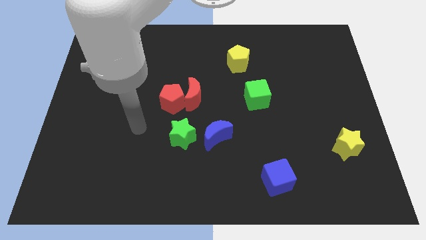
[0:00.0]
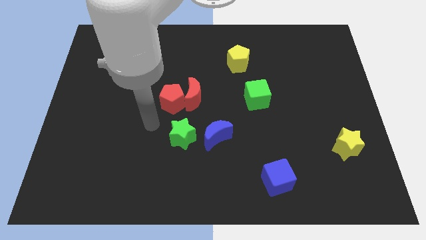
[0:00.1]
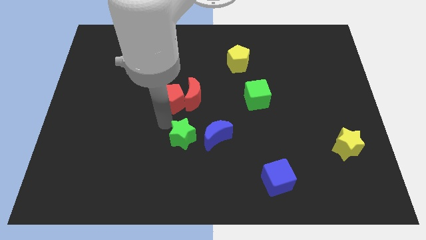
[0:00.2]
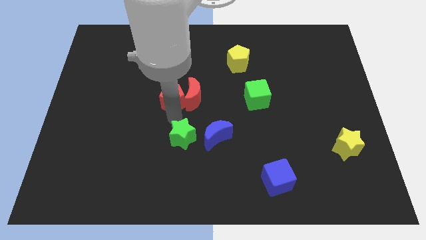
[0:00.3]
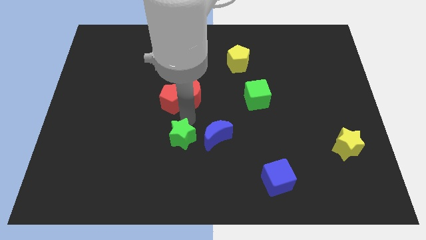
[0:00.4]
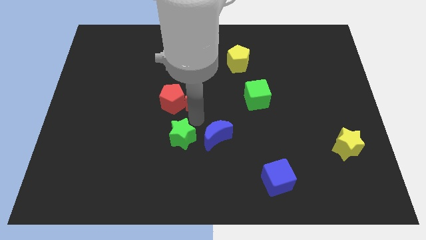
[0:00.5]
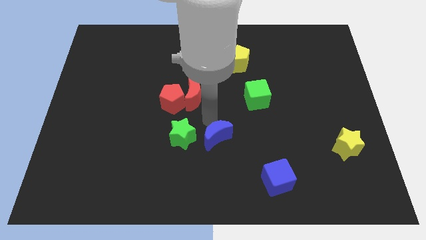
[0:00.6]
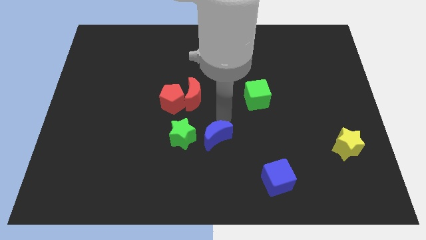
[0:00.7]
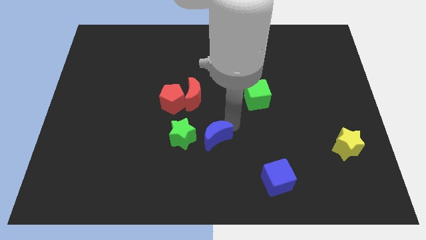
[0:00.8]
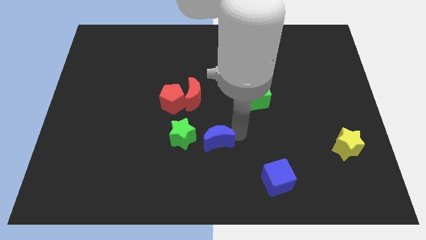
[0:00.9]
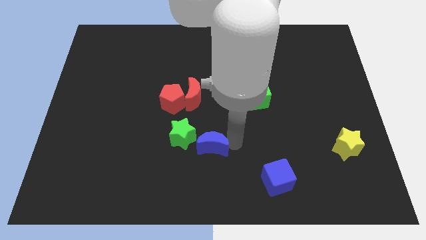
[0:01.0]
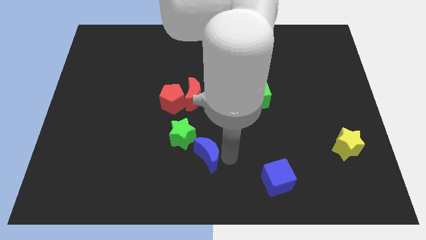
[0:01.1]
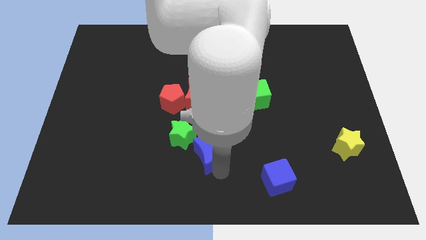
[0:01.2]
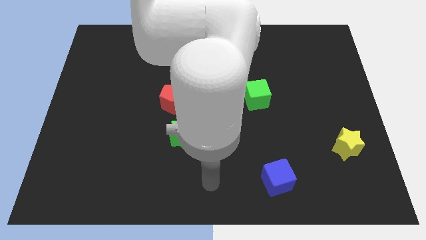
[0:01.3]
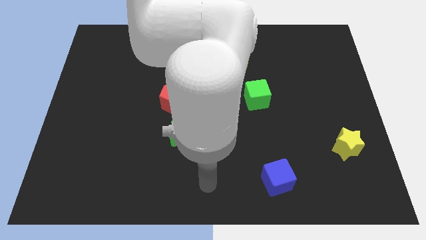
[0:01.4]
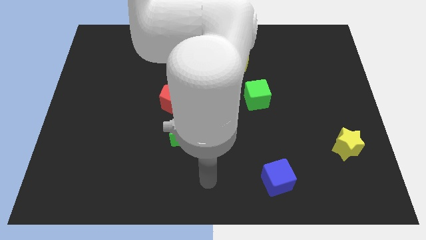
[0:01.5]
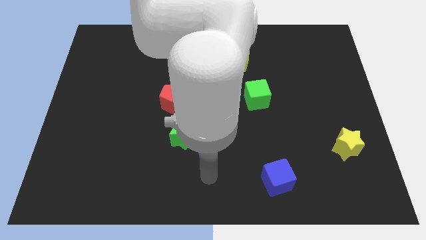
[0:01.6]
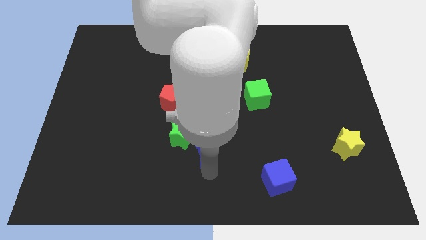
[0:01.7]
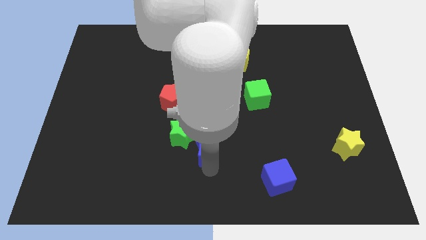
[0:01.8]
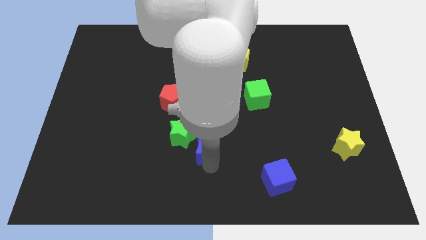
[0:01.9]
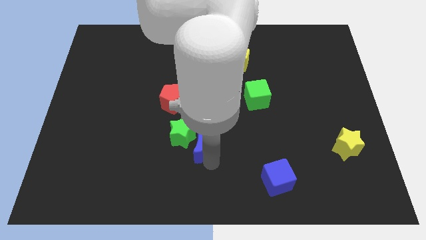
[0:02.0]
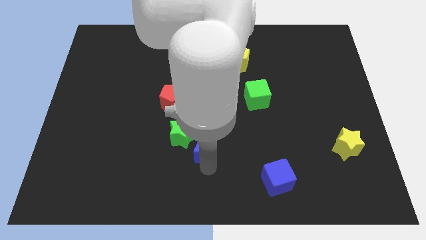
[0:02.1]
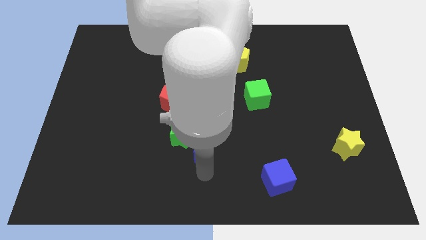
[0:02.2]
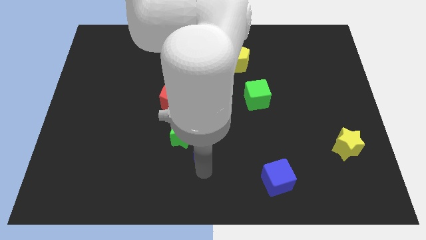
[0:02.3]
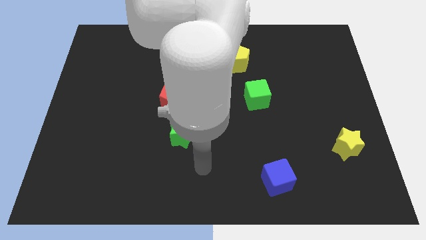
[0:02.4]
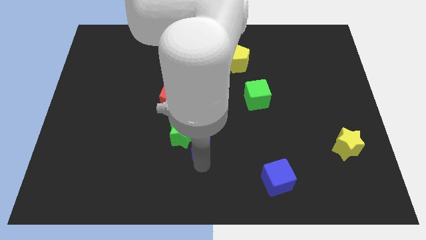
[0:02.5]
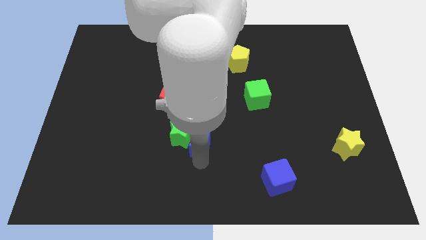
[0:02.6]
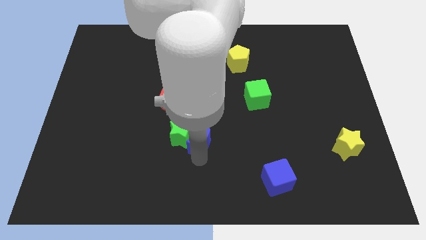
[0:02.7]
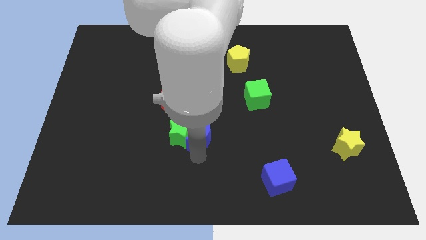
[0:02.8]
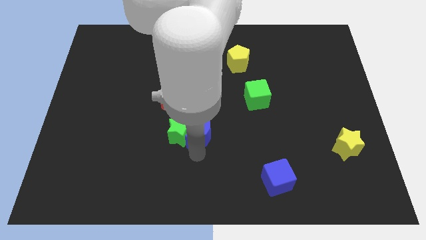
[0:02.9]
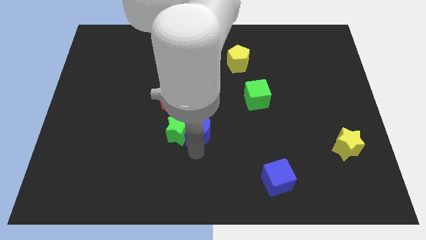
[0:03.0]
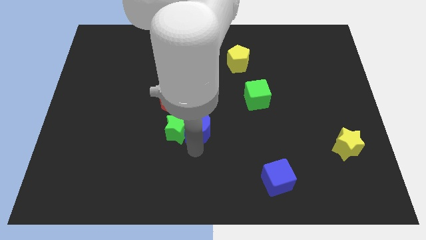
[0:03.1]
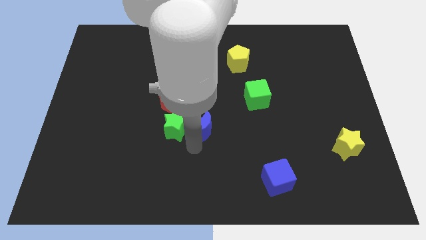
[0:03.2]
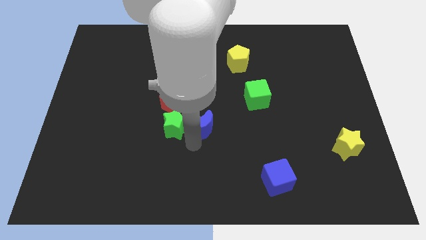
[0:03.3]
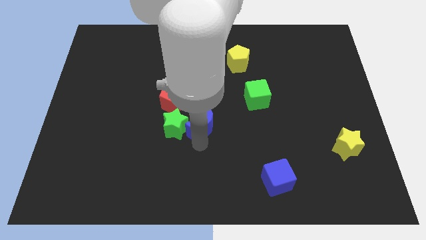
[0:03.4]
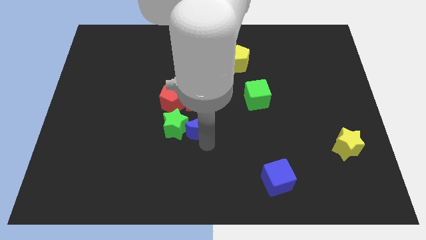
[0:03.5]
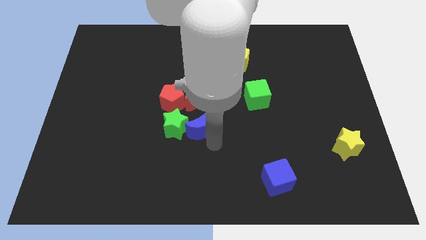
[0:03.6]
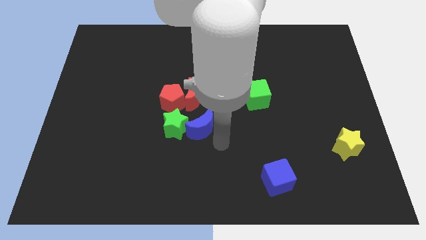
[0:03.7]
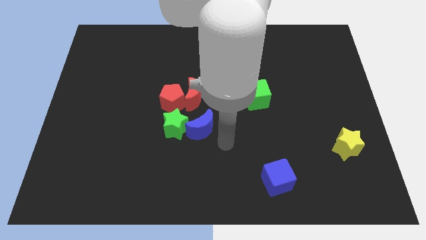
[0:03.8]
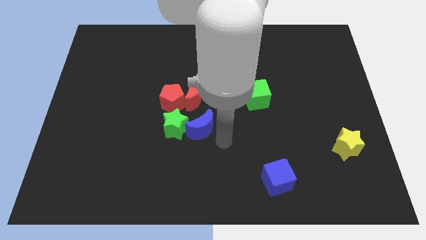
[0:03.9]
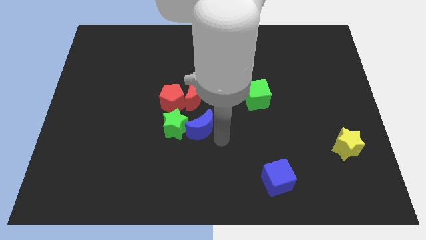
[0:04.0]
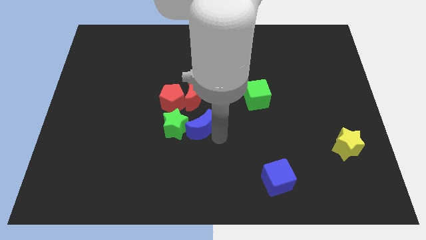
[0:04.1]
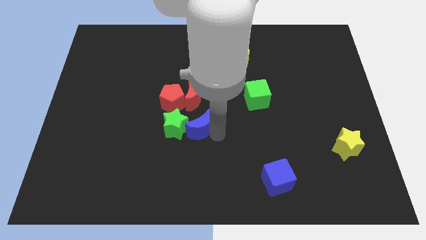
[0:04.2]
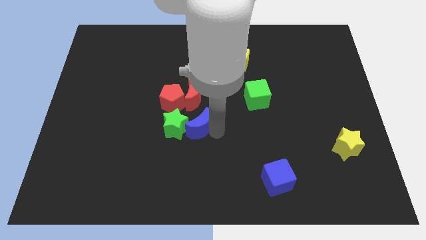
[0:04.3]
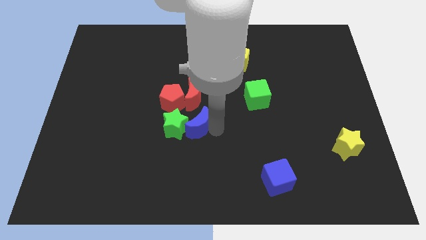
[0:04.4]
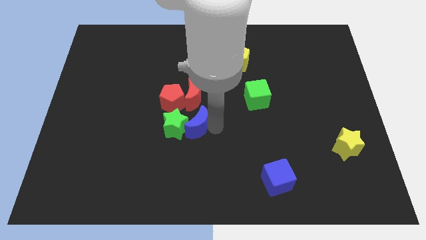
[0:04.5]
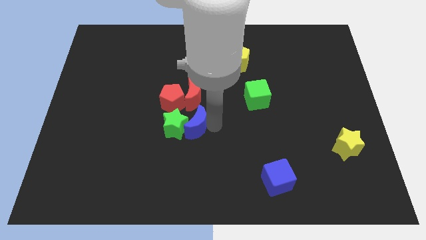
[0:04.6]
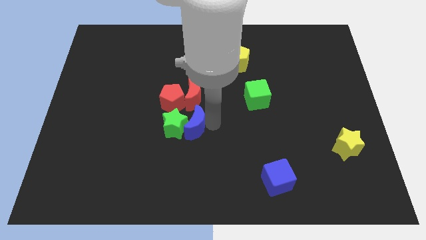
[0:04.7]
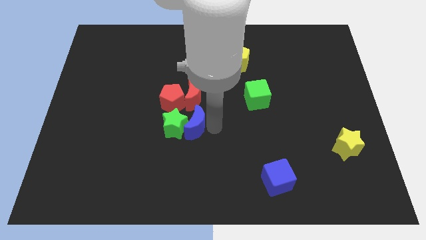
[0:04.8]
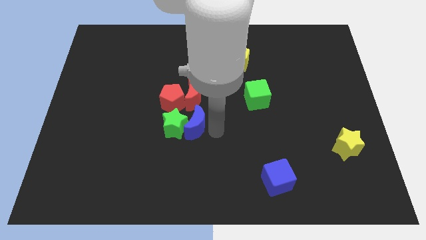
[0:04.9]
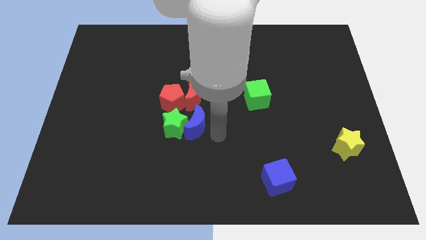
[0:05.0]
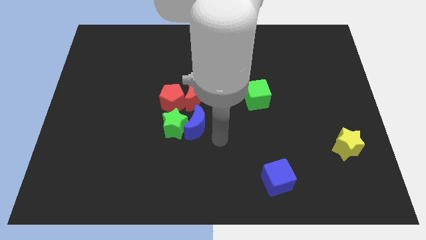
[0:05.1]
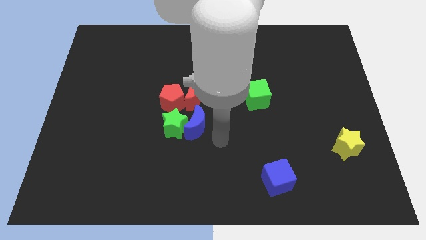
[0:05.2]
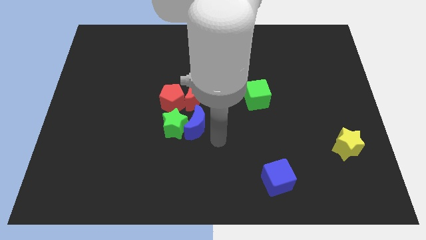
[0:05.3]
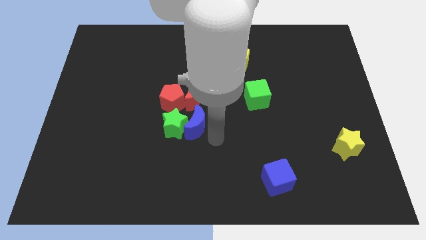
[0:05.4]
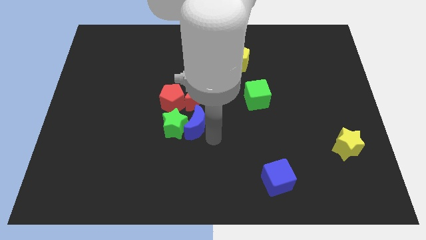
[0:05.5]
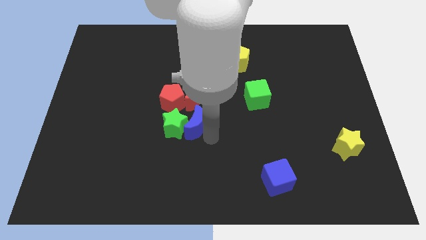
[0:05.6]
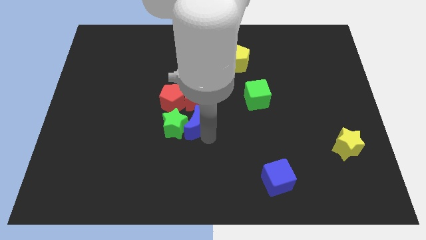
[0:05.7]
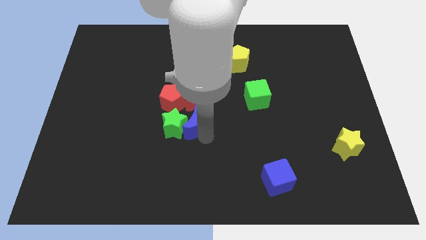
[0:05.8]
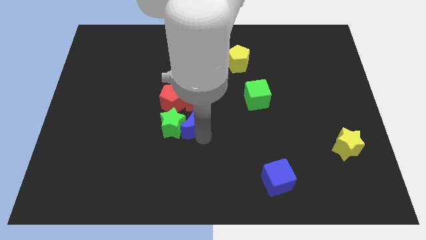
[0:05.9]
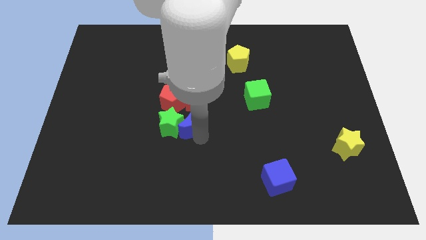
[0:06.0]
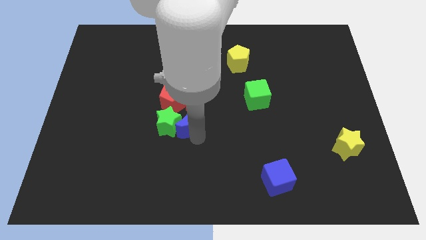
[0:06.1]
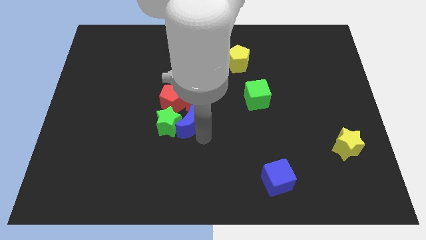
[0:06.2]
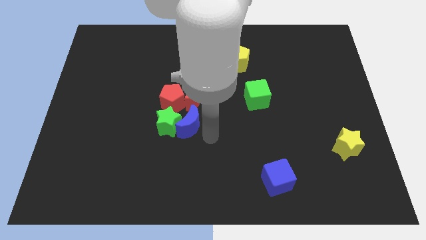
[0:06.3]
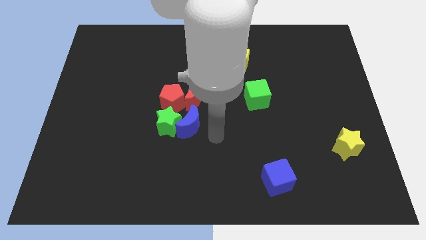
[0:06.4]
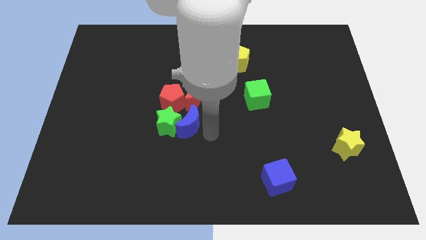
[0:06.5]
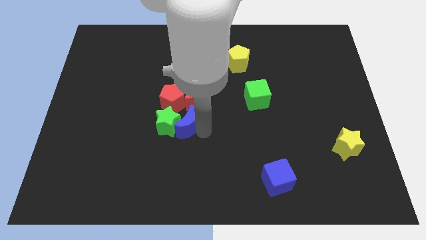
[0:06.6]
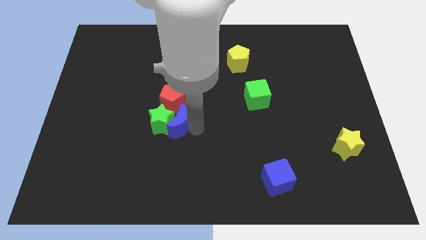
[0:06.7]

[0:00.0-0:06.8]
slide the blue moon a bit upwards and to the left

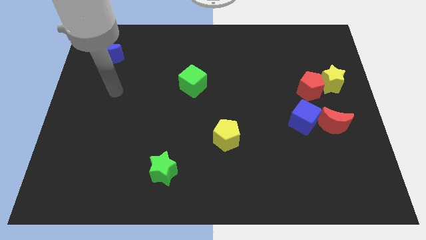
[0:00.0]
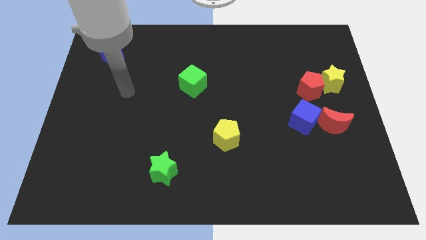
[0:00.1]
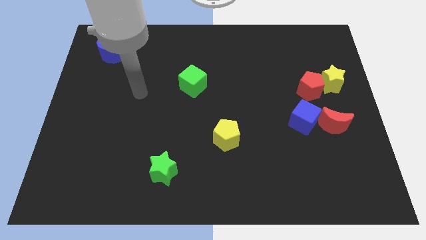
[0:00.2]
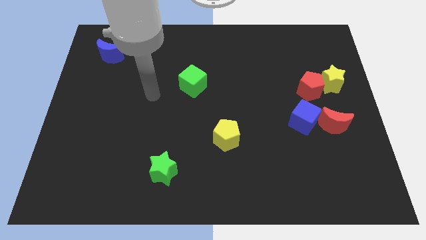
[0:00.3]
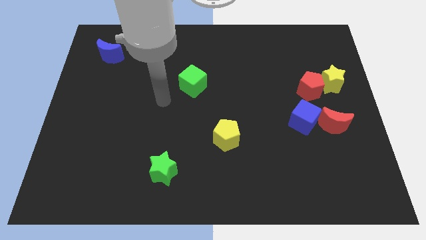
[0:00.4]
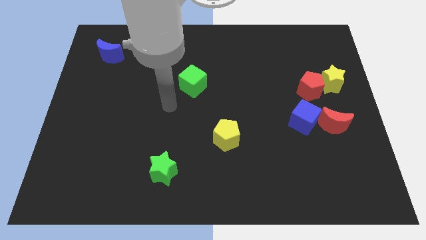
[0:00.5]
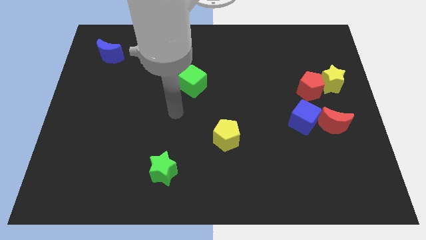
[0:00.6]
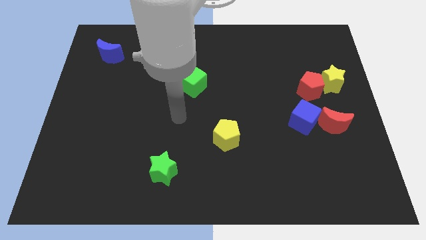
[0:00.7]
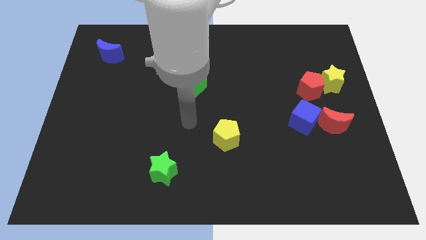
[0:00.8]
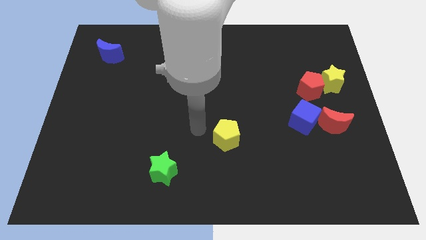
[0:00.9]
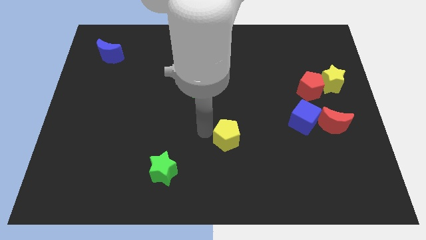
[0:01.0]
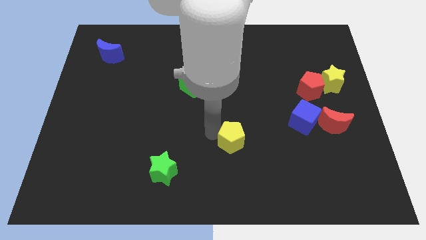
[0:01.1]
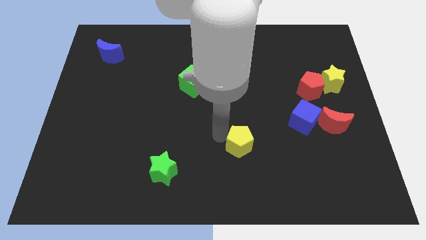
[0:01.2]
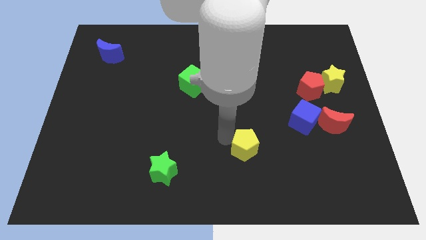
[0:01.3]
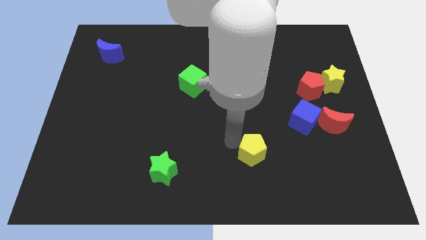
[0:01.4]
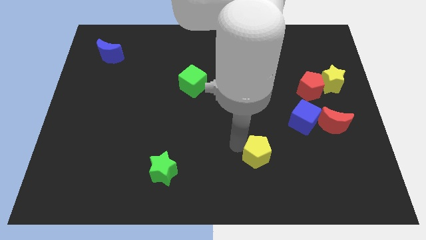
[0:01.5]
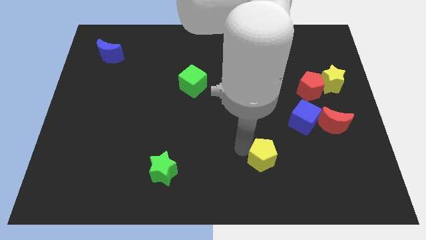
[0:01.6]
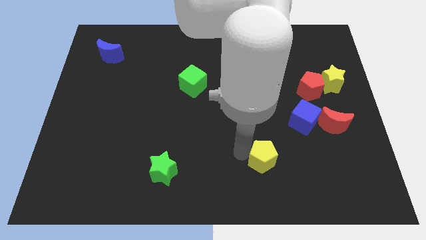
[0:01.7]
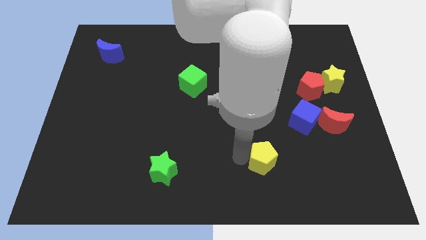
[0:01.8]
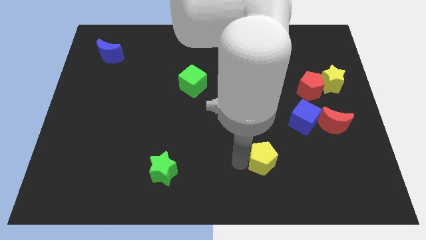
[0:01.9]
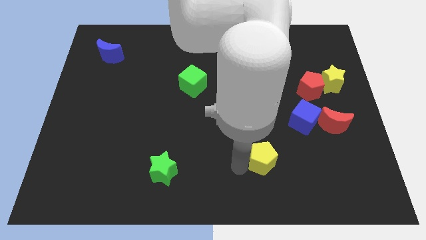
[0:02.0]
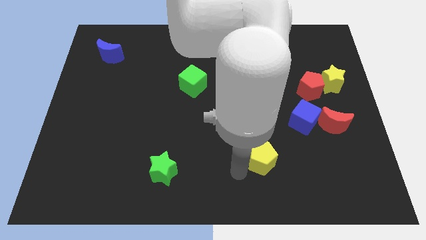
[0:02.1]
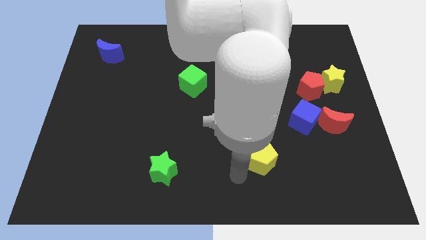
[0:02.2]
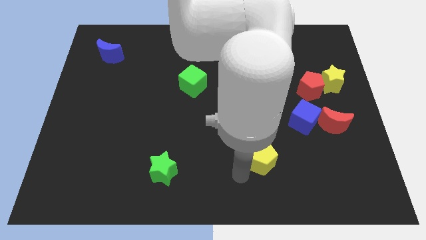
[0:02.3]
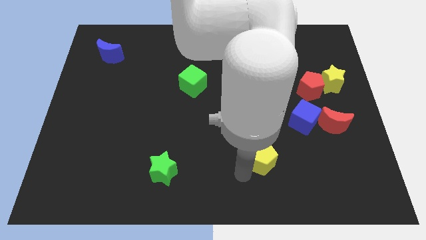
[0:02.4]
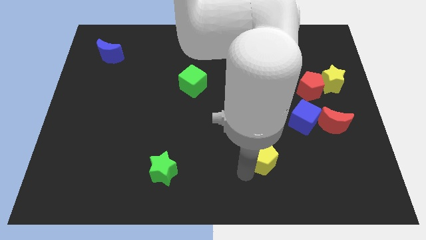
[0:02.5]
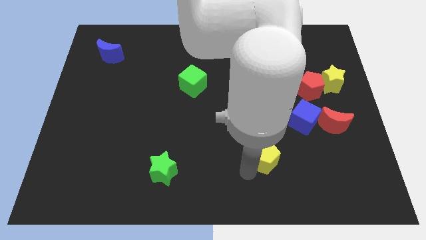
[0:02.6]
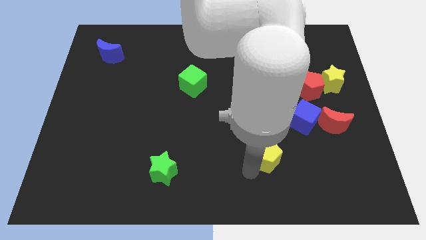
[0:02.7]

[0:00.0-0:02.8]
slightly slide the yellow pentagon to the right
